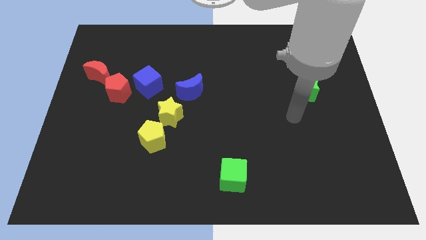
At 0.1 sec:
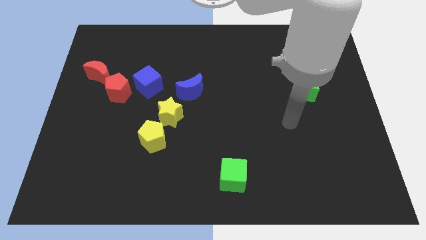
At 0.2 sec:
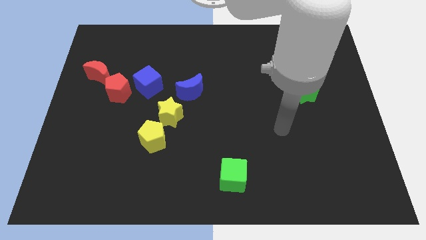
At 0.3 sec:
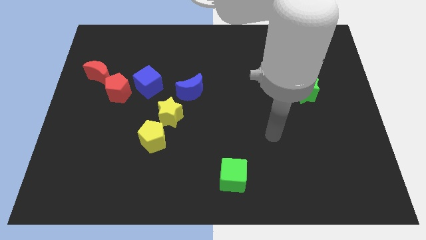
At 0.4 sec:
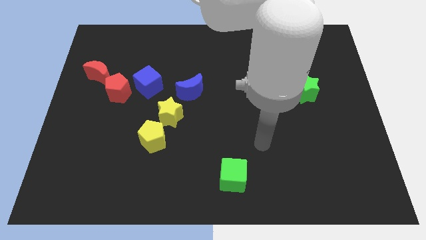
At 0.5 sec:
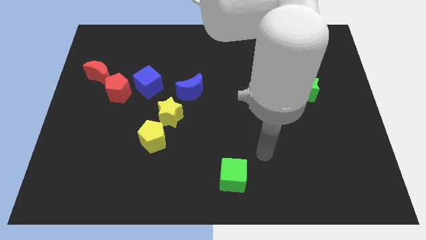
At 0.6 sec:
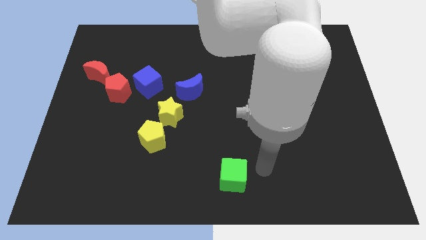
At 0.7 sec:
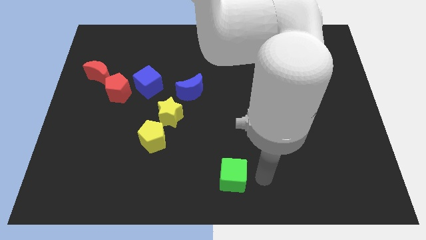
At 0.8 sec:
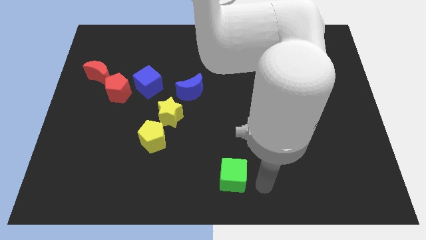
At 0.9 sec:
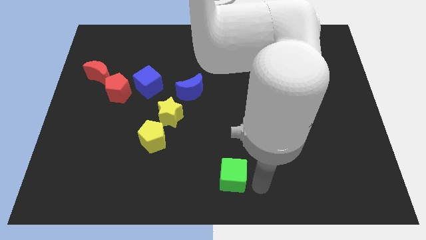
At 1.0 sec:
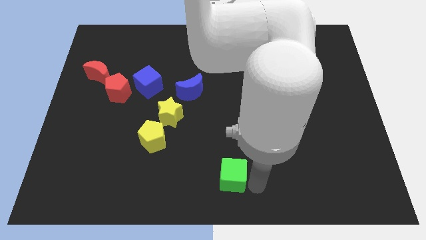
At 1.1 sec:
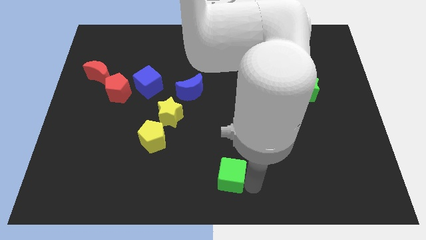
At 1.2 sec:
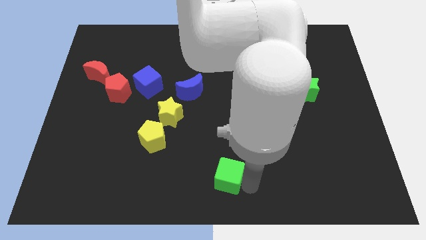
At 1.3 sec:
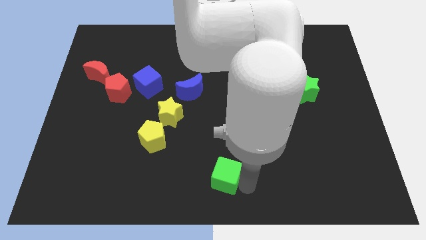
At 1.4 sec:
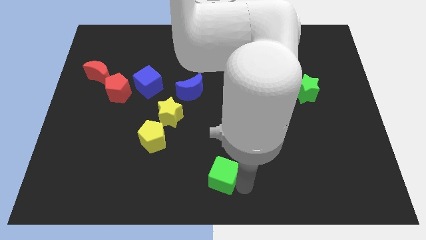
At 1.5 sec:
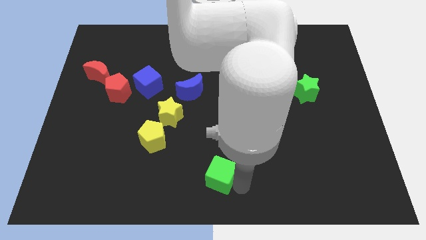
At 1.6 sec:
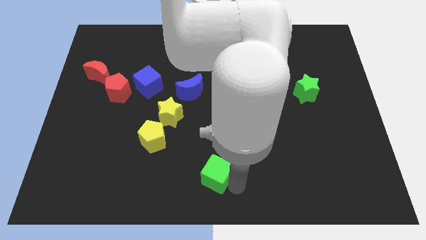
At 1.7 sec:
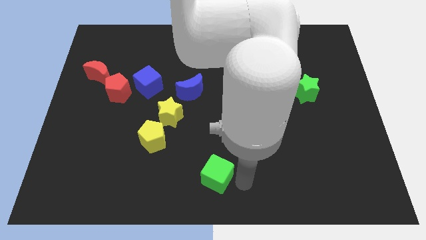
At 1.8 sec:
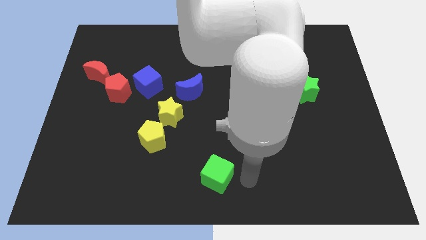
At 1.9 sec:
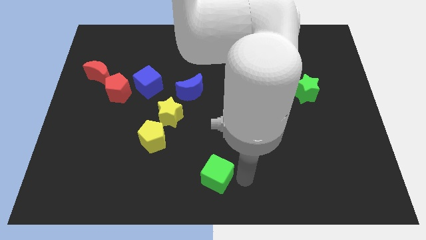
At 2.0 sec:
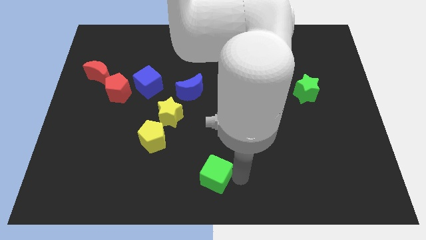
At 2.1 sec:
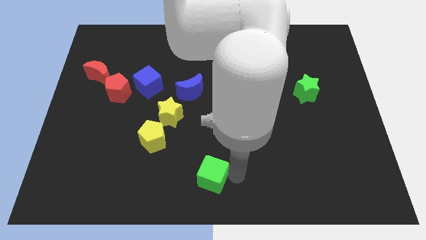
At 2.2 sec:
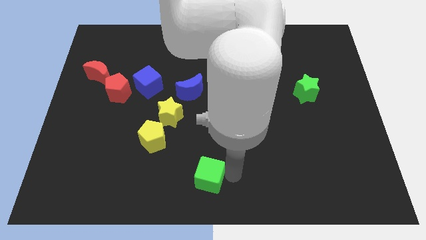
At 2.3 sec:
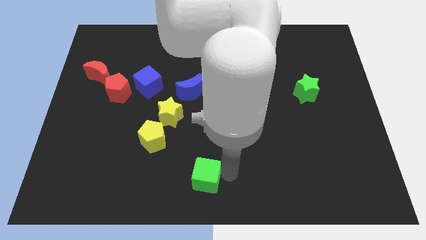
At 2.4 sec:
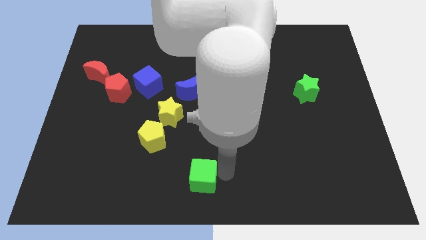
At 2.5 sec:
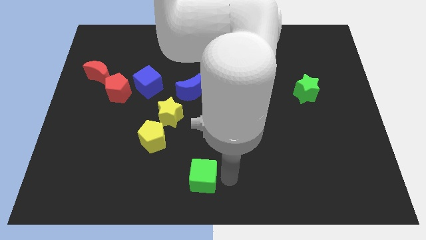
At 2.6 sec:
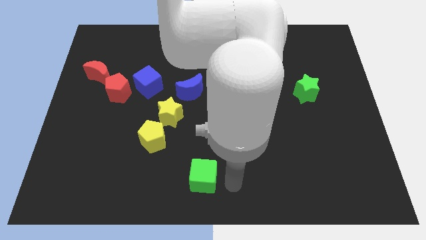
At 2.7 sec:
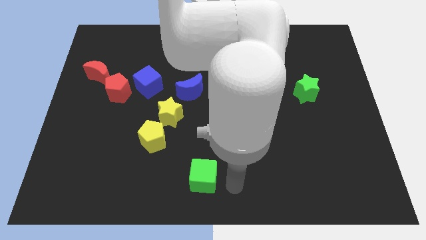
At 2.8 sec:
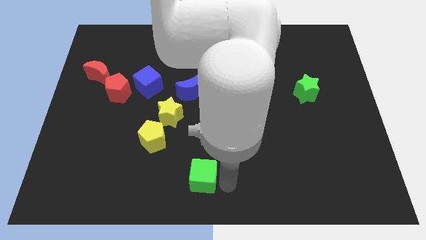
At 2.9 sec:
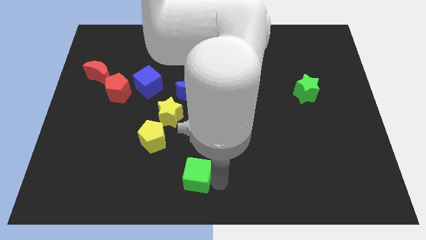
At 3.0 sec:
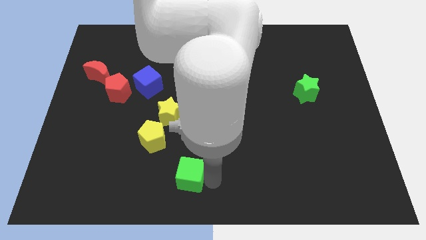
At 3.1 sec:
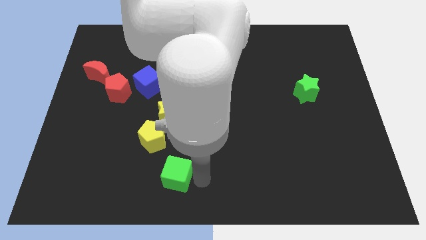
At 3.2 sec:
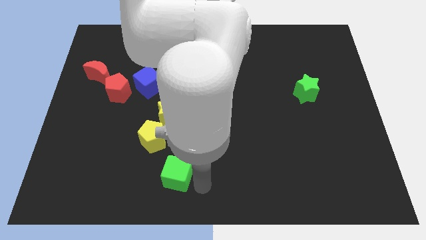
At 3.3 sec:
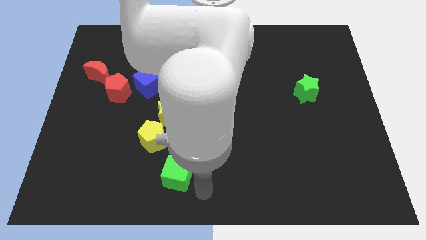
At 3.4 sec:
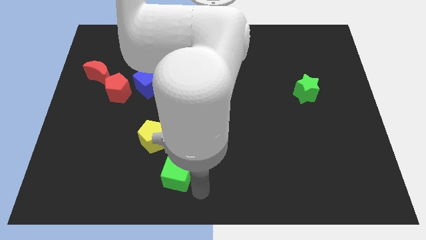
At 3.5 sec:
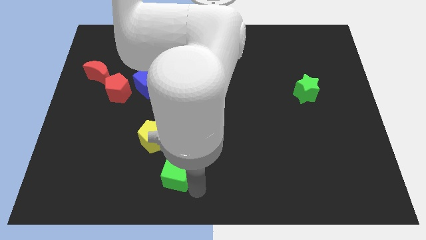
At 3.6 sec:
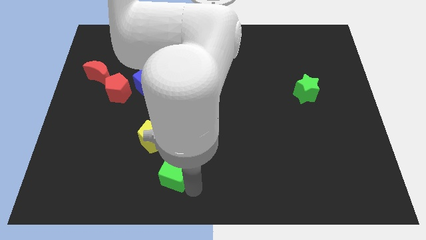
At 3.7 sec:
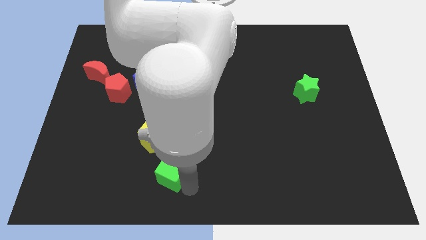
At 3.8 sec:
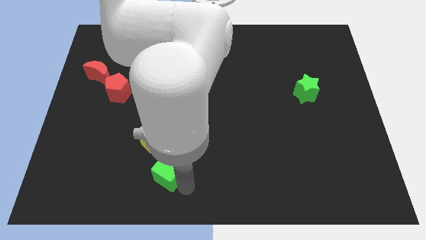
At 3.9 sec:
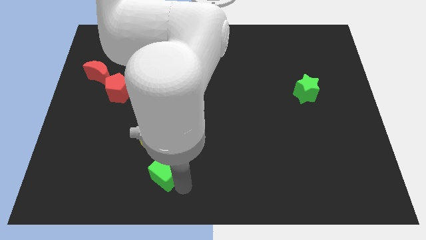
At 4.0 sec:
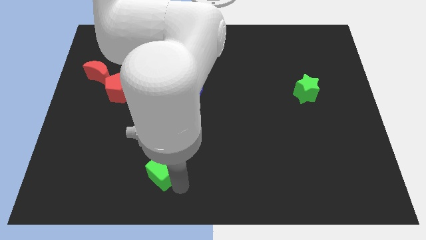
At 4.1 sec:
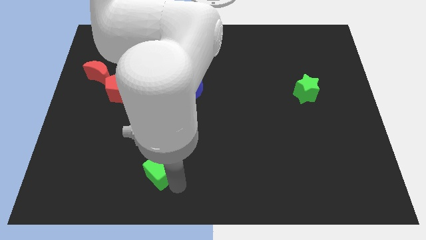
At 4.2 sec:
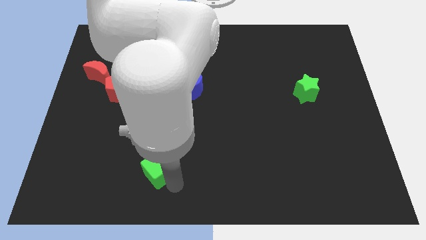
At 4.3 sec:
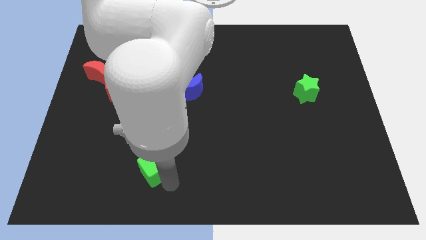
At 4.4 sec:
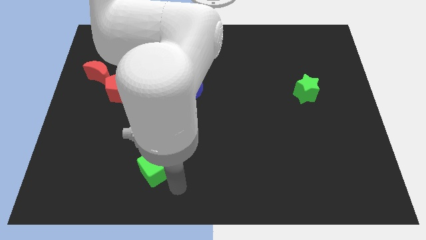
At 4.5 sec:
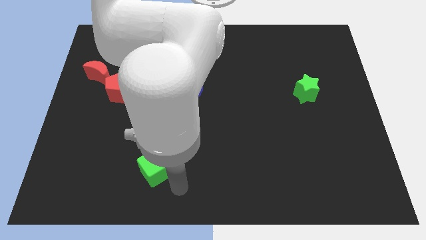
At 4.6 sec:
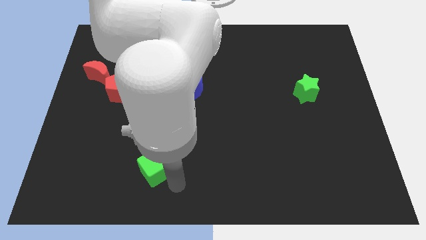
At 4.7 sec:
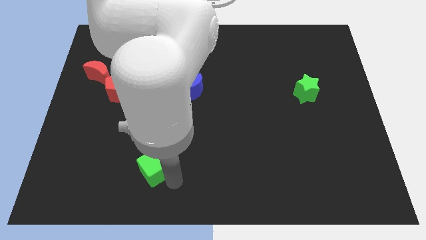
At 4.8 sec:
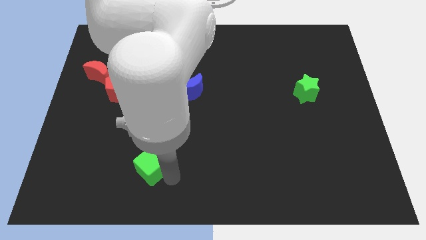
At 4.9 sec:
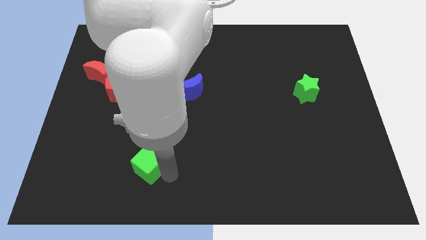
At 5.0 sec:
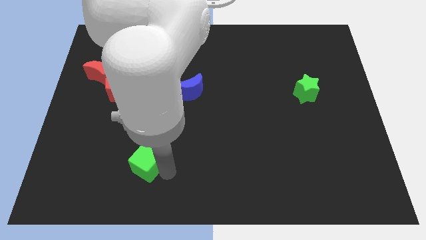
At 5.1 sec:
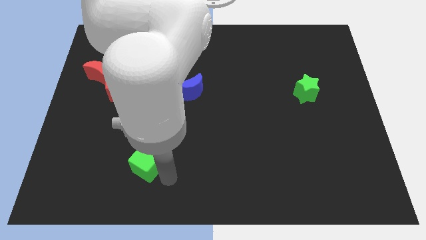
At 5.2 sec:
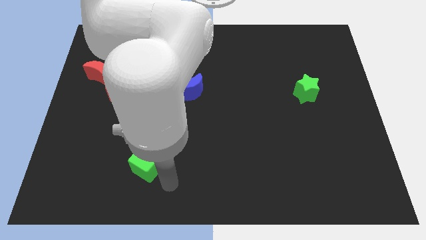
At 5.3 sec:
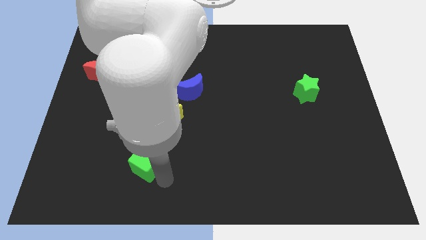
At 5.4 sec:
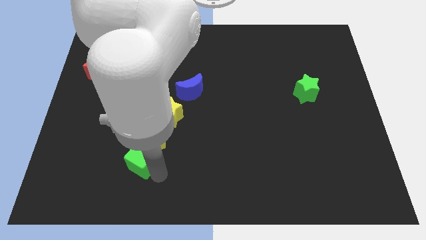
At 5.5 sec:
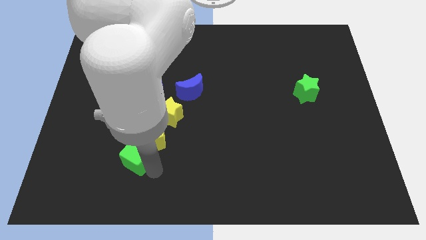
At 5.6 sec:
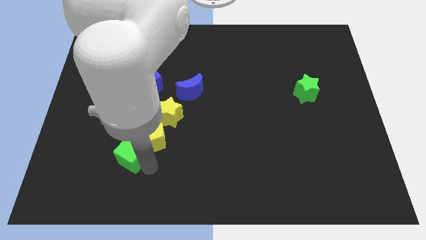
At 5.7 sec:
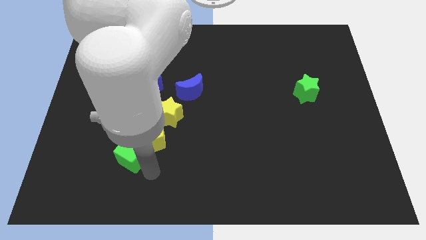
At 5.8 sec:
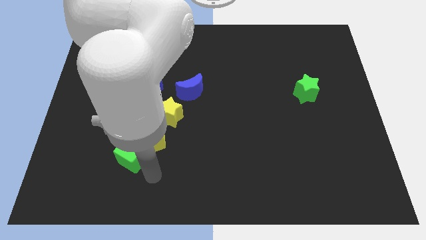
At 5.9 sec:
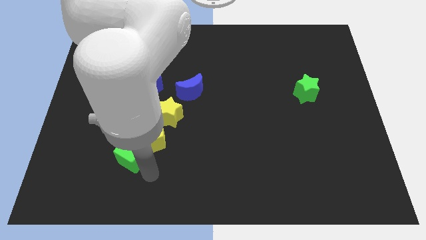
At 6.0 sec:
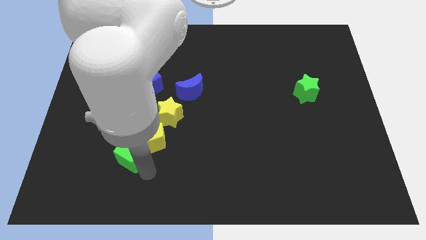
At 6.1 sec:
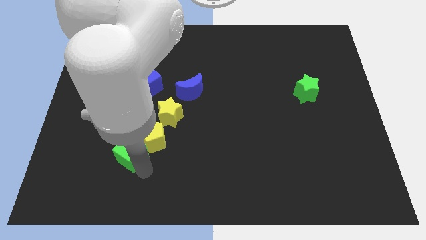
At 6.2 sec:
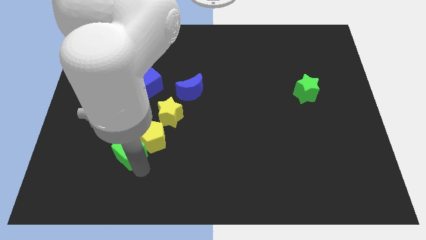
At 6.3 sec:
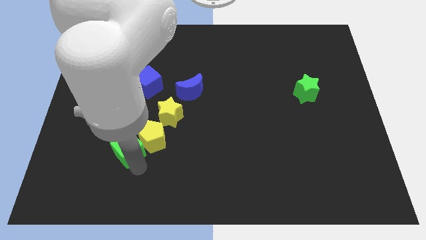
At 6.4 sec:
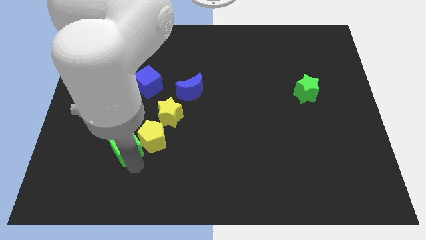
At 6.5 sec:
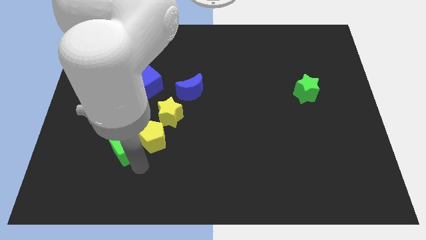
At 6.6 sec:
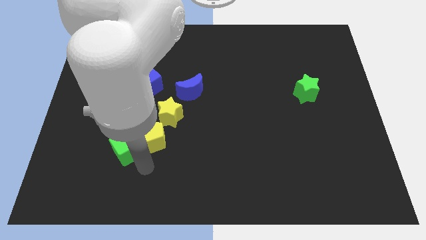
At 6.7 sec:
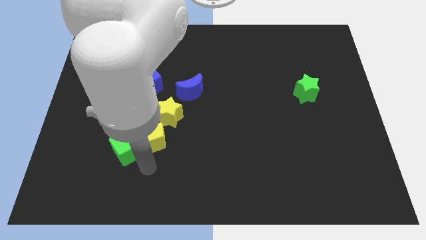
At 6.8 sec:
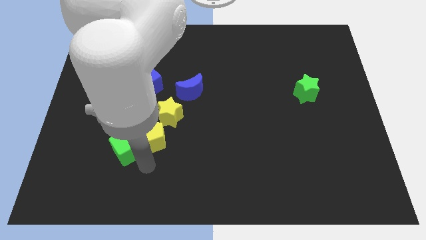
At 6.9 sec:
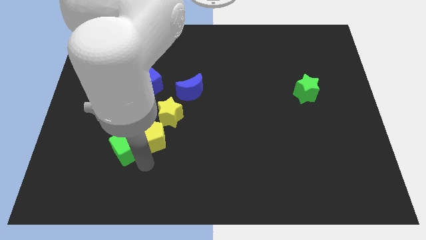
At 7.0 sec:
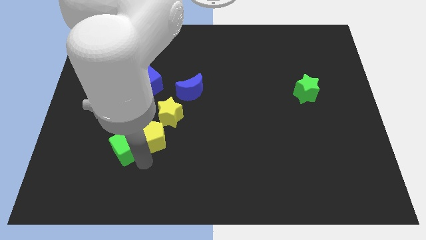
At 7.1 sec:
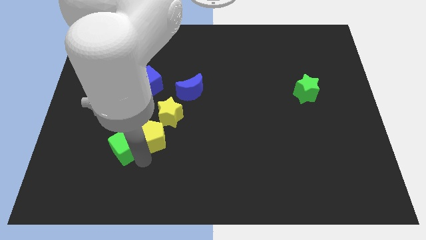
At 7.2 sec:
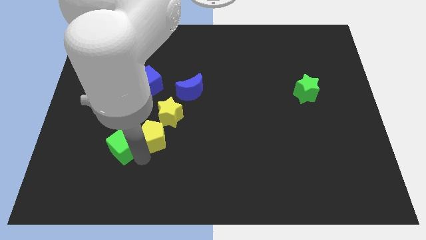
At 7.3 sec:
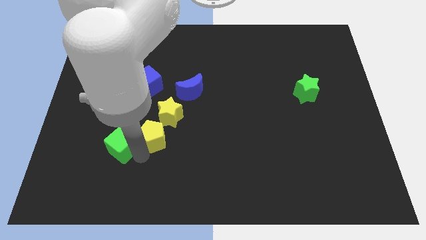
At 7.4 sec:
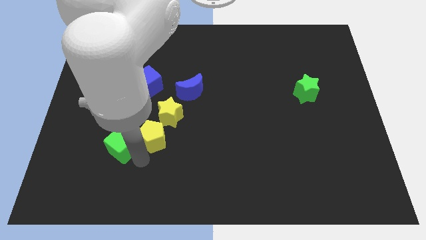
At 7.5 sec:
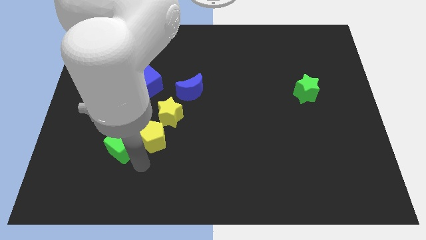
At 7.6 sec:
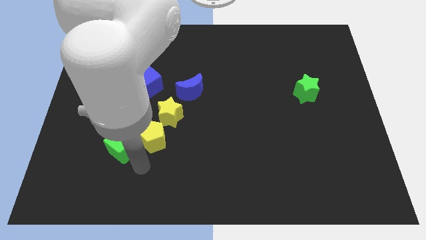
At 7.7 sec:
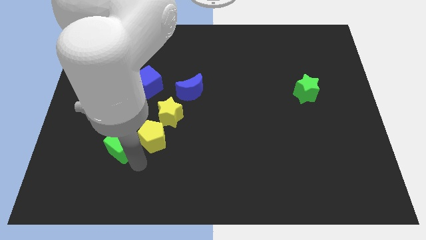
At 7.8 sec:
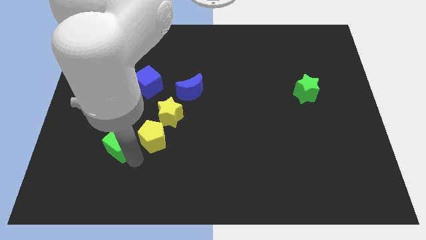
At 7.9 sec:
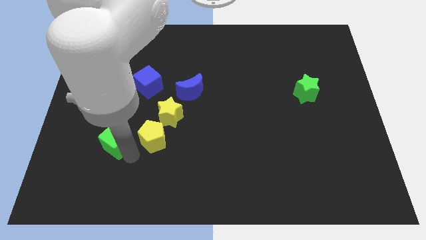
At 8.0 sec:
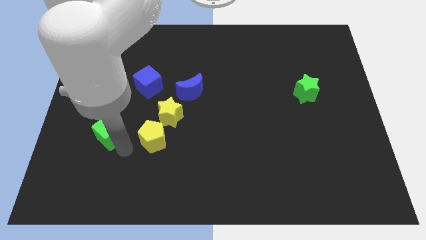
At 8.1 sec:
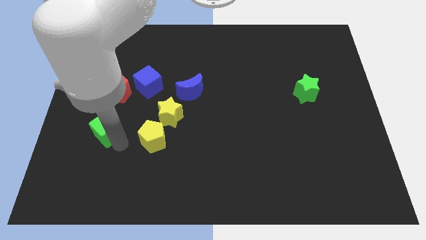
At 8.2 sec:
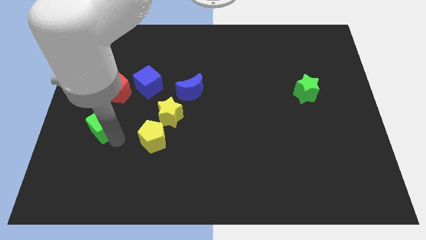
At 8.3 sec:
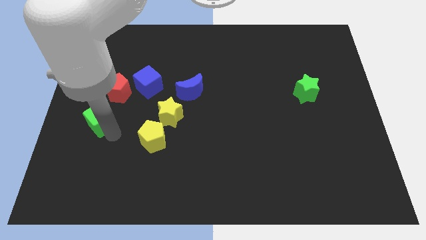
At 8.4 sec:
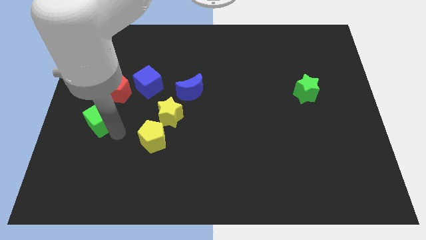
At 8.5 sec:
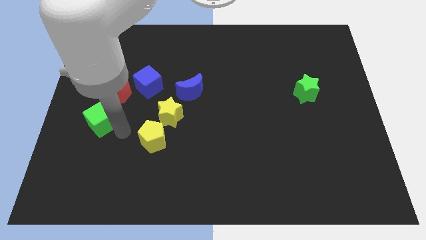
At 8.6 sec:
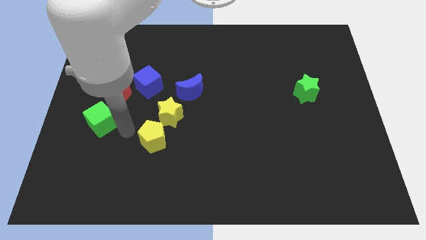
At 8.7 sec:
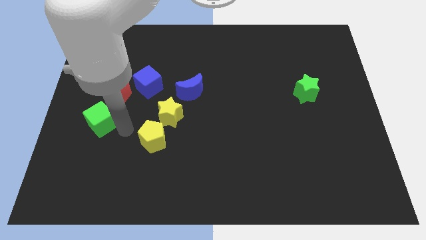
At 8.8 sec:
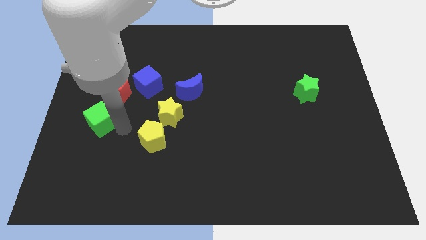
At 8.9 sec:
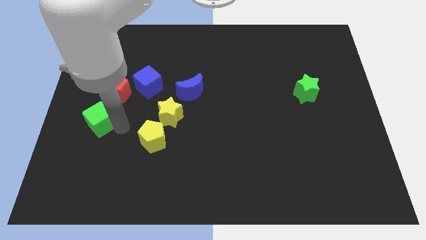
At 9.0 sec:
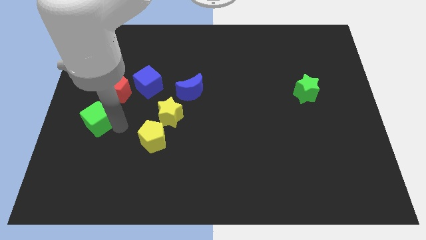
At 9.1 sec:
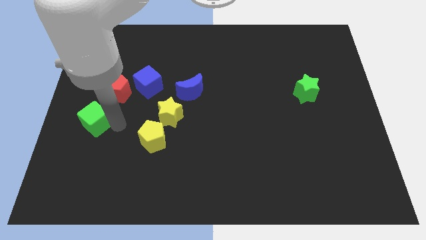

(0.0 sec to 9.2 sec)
slide the green cube to the left side of the board
